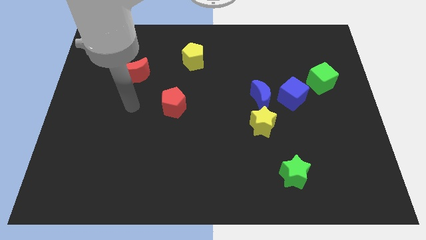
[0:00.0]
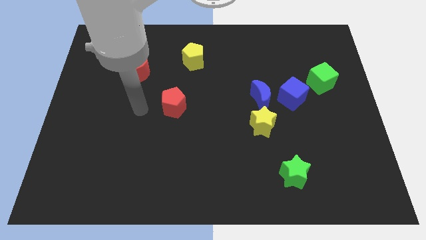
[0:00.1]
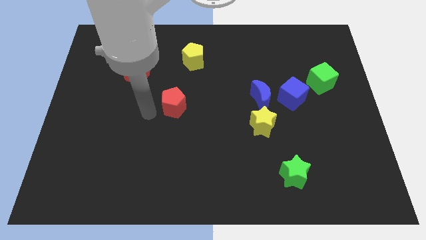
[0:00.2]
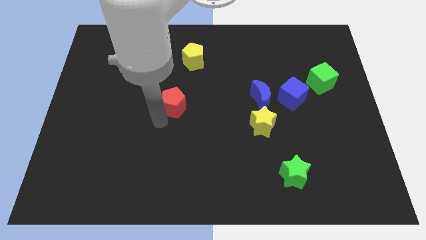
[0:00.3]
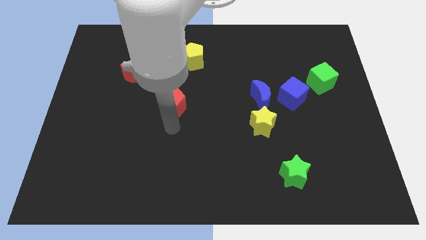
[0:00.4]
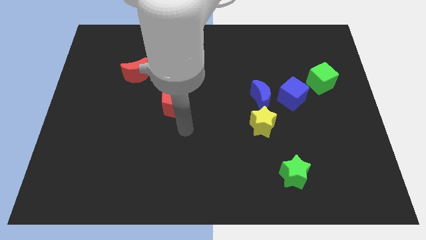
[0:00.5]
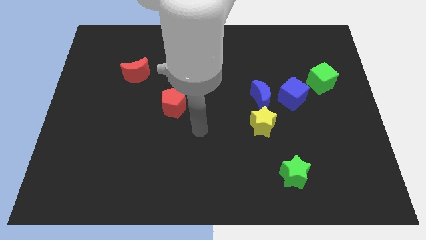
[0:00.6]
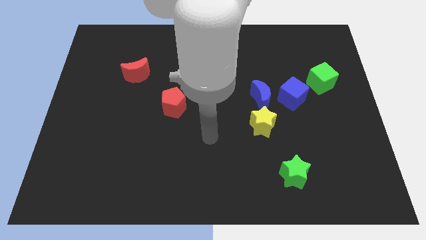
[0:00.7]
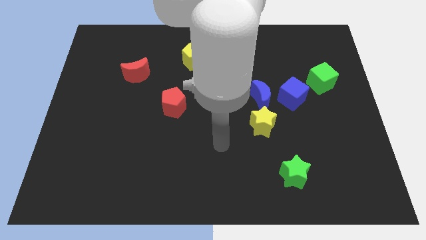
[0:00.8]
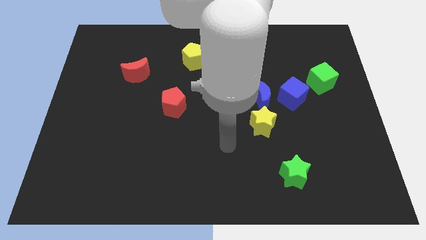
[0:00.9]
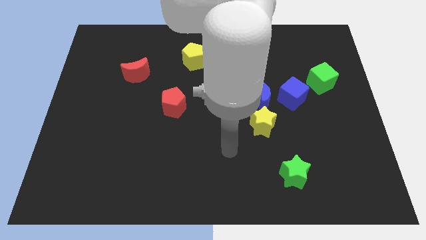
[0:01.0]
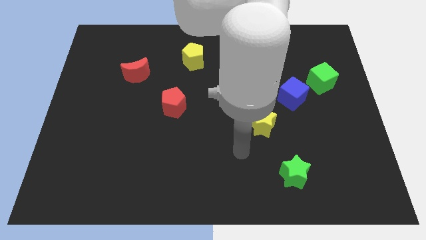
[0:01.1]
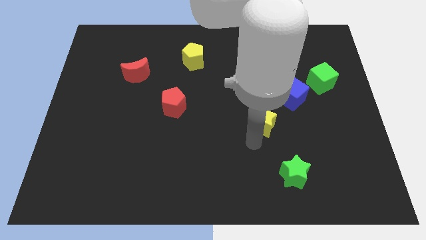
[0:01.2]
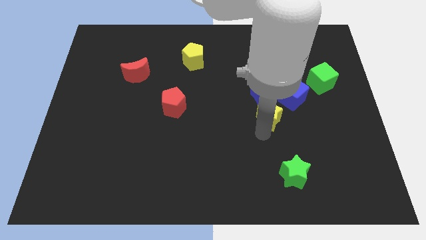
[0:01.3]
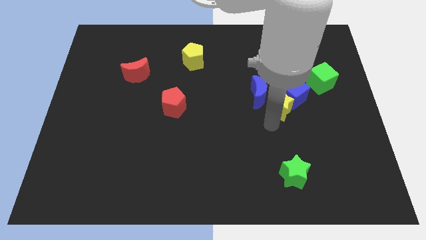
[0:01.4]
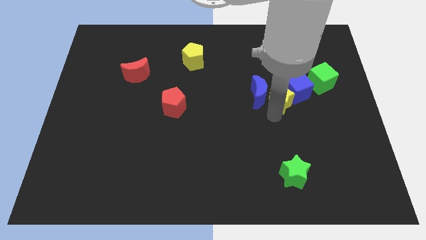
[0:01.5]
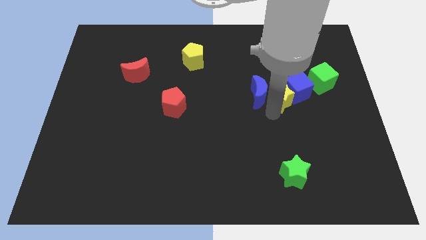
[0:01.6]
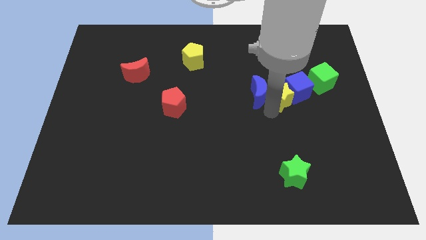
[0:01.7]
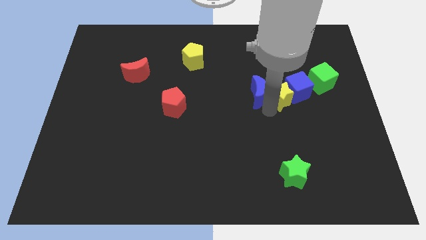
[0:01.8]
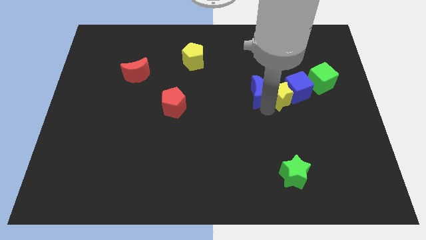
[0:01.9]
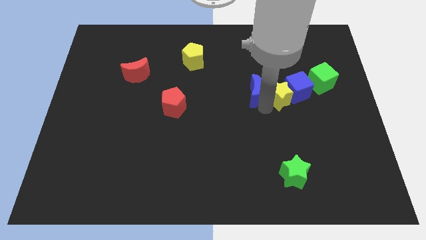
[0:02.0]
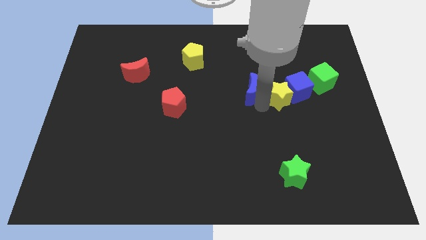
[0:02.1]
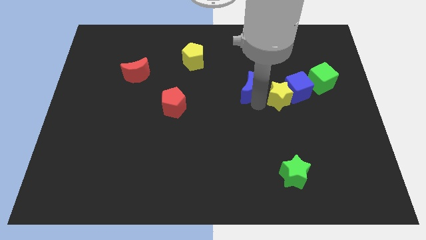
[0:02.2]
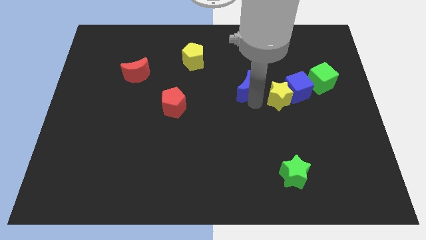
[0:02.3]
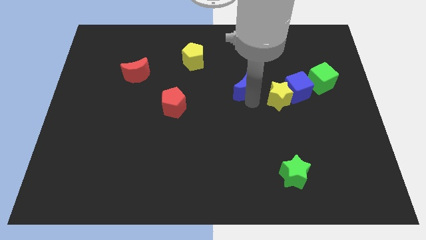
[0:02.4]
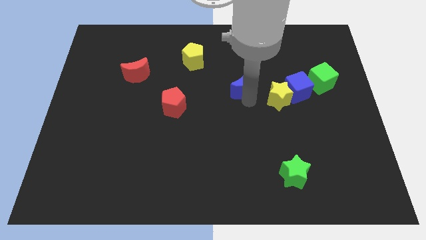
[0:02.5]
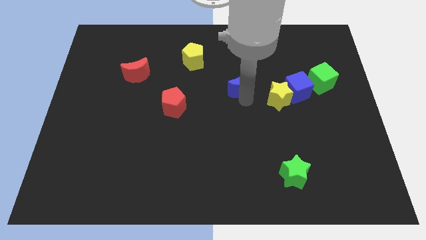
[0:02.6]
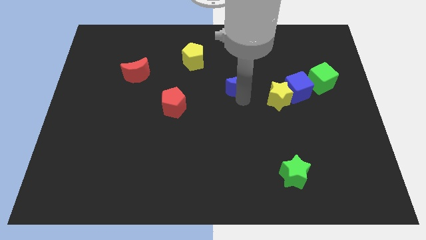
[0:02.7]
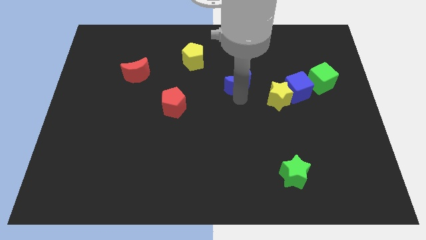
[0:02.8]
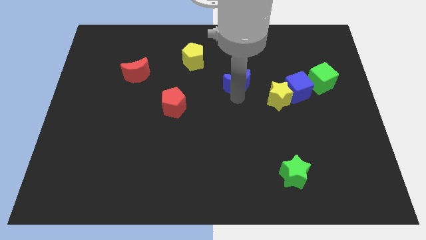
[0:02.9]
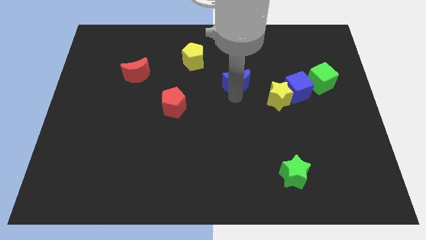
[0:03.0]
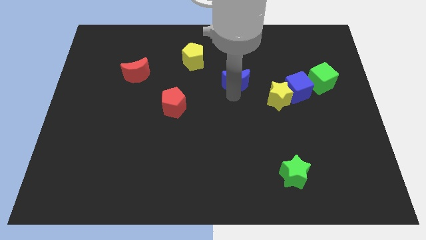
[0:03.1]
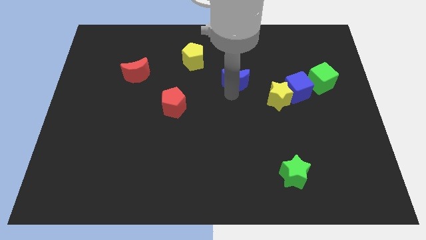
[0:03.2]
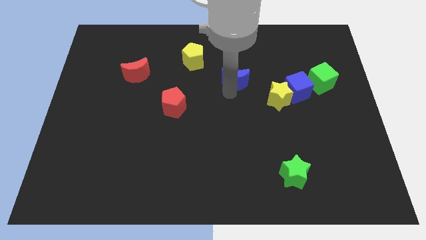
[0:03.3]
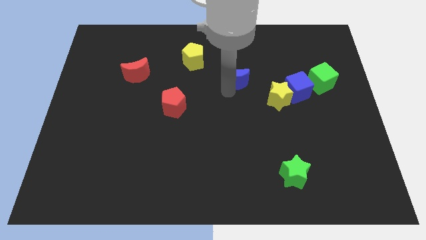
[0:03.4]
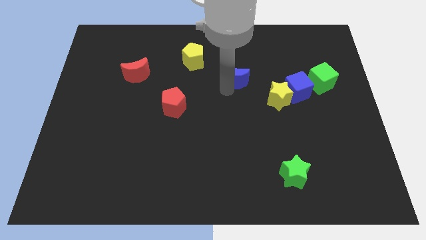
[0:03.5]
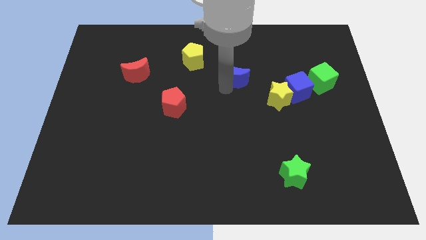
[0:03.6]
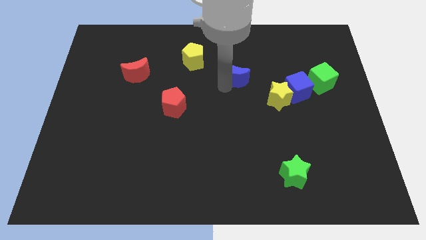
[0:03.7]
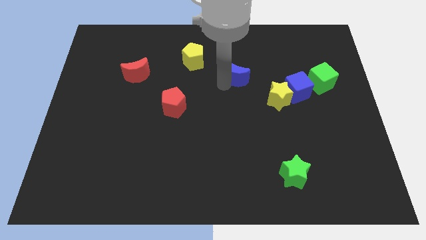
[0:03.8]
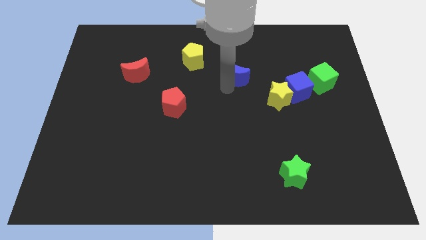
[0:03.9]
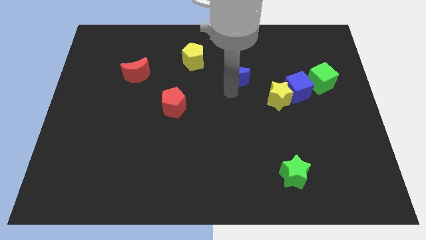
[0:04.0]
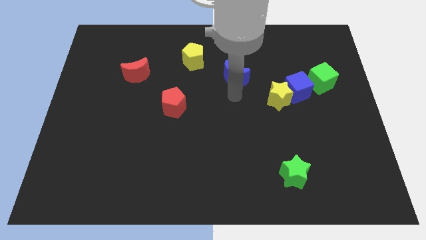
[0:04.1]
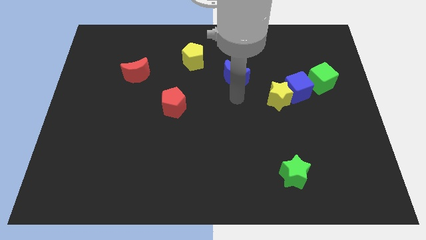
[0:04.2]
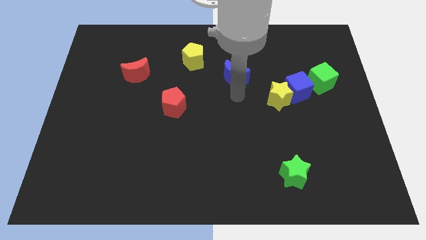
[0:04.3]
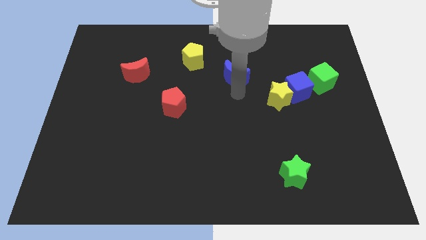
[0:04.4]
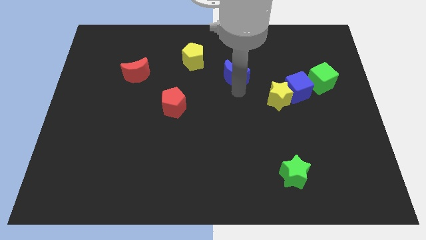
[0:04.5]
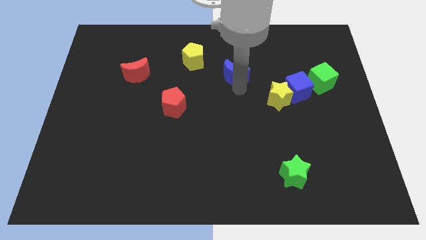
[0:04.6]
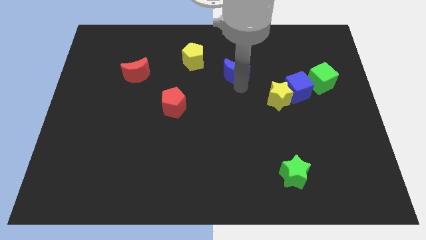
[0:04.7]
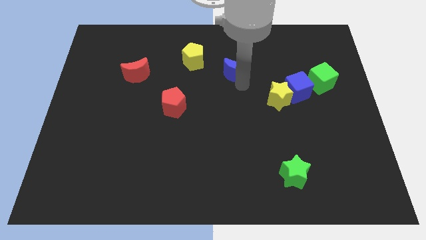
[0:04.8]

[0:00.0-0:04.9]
slide the blue moon to the right side of the yellow pentagon

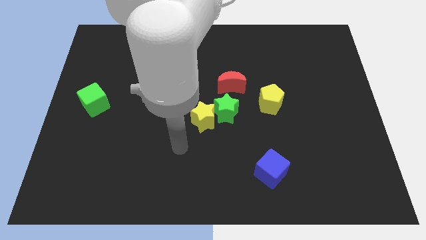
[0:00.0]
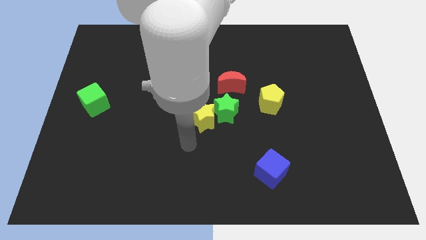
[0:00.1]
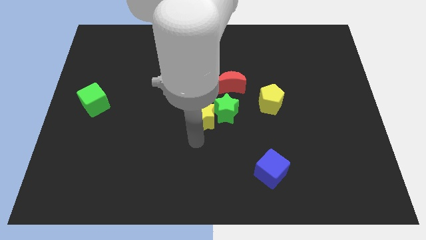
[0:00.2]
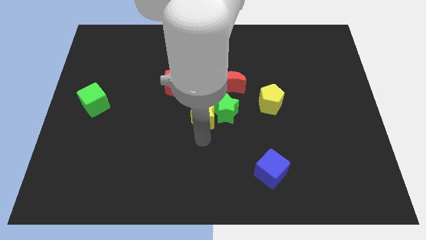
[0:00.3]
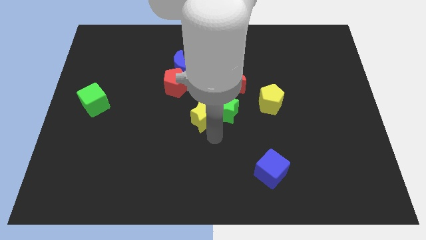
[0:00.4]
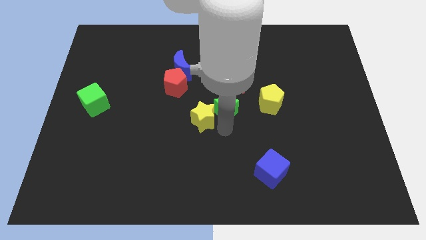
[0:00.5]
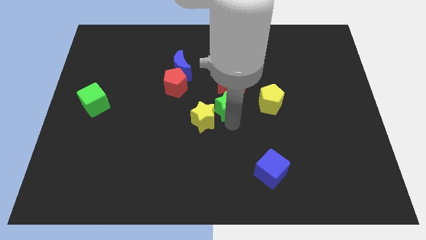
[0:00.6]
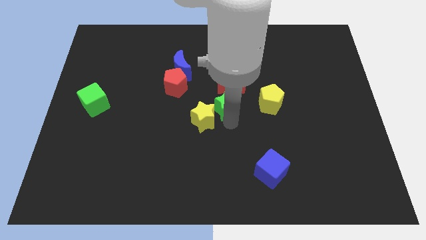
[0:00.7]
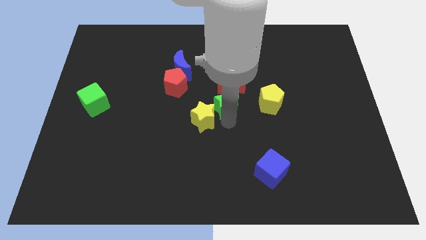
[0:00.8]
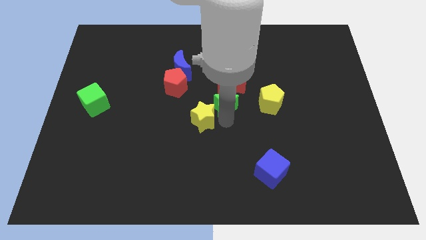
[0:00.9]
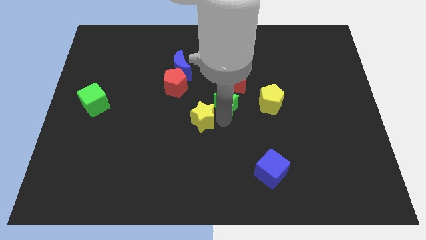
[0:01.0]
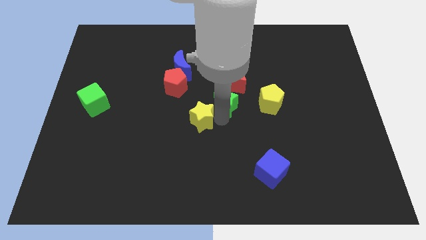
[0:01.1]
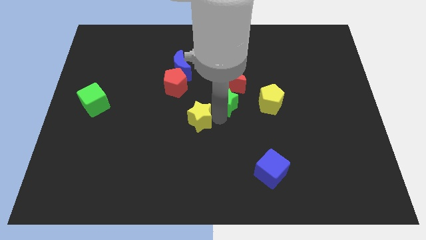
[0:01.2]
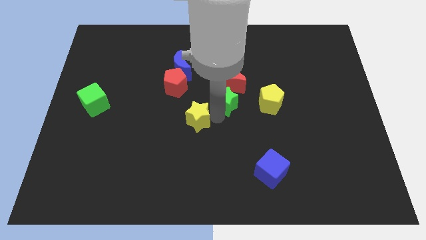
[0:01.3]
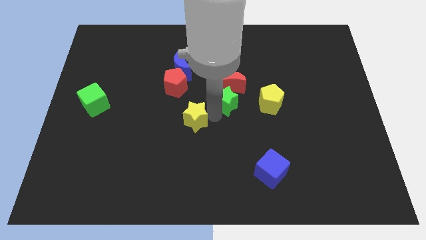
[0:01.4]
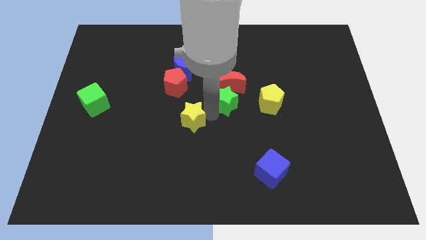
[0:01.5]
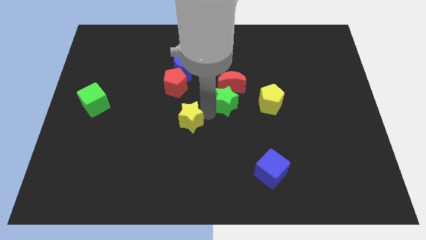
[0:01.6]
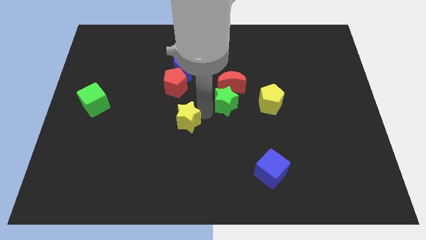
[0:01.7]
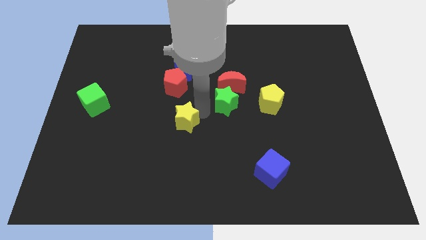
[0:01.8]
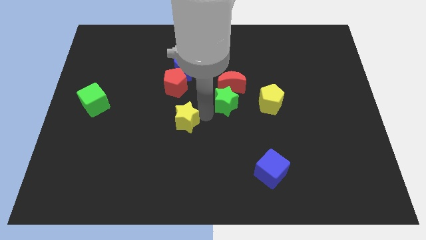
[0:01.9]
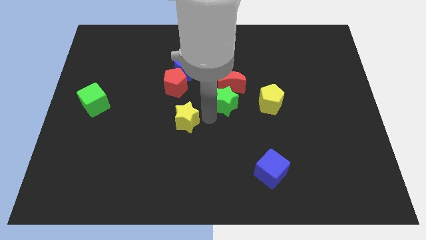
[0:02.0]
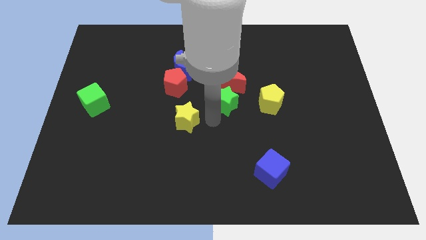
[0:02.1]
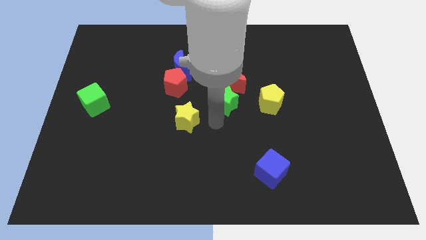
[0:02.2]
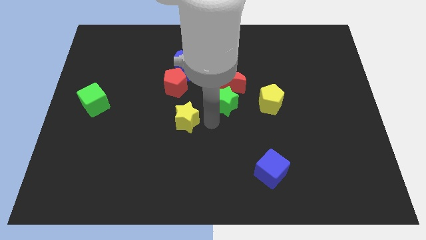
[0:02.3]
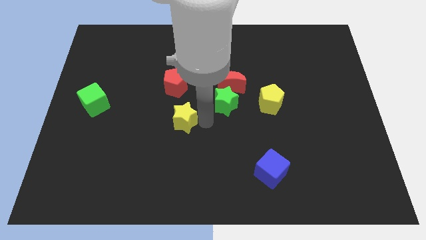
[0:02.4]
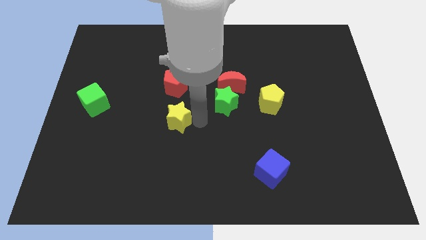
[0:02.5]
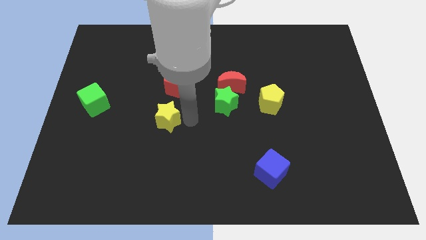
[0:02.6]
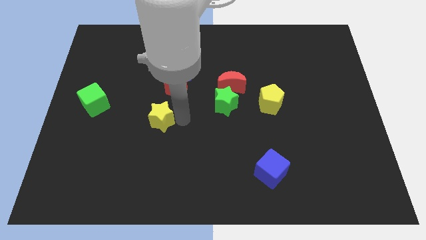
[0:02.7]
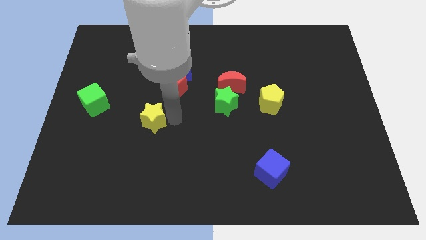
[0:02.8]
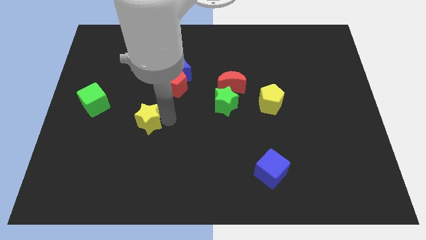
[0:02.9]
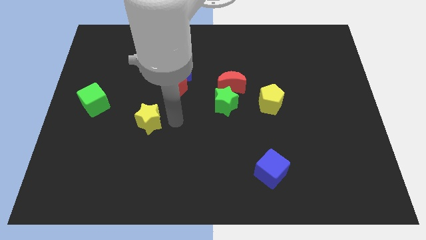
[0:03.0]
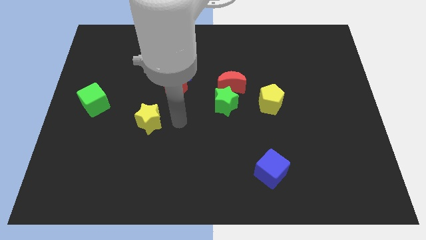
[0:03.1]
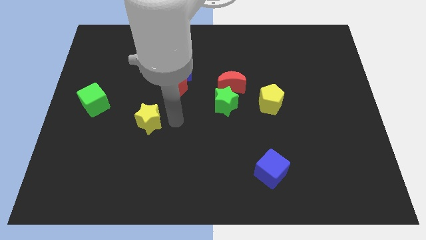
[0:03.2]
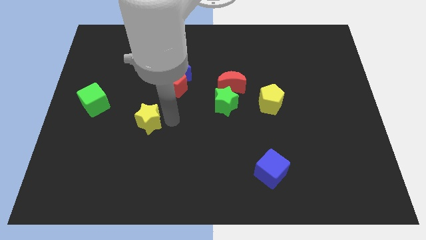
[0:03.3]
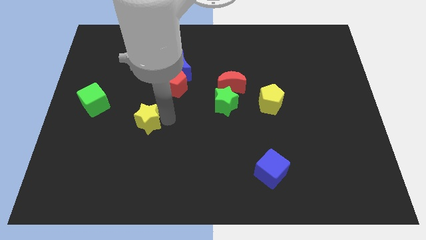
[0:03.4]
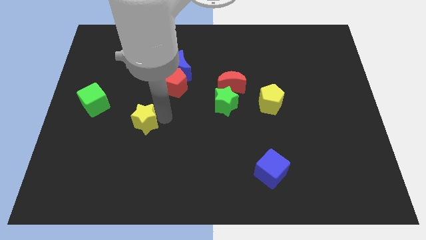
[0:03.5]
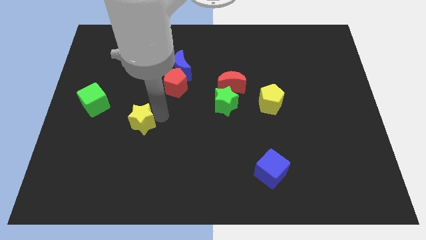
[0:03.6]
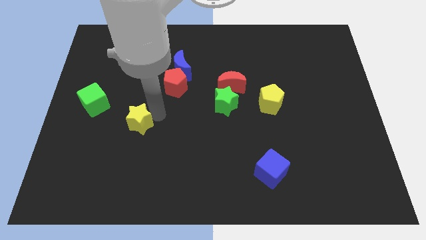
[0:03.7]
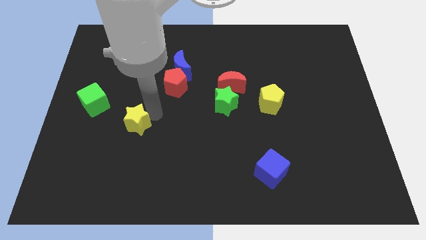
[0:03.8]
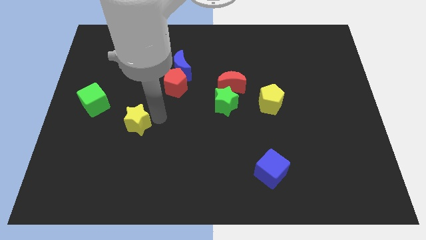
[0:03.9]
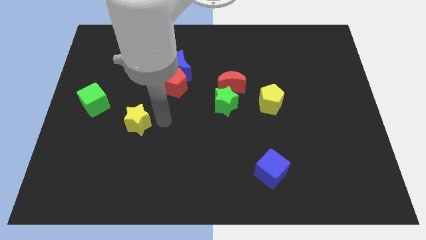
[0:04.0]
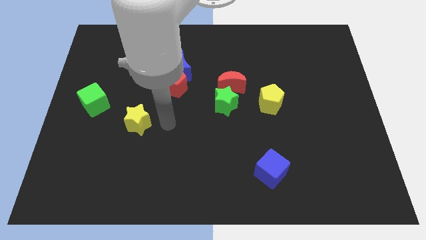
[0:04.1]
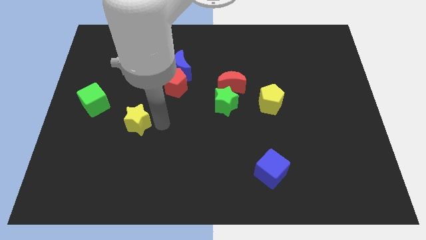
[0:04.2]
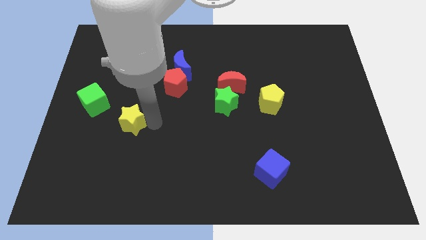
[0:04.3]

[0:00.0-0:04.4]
put the yellow star to the bottom right side of the green cube
